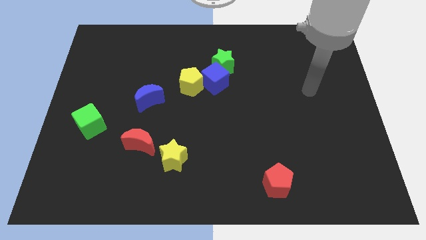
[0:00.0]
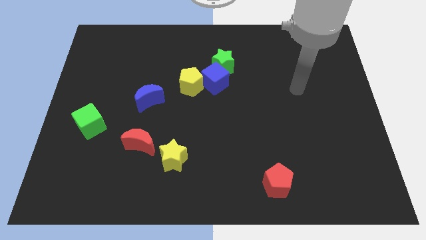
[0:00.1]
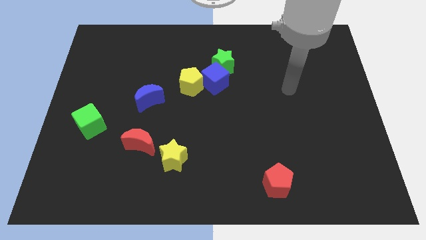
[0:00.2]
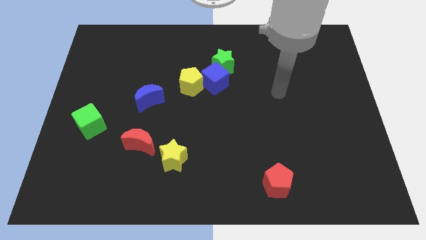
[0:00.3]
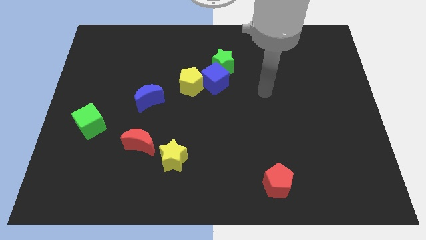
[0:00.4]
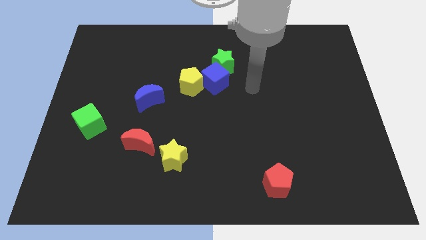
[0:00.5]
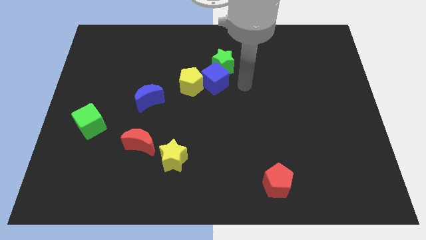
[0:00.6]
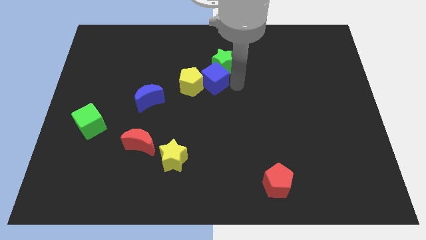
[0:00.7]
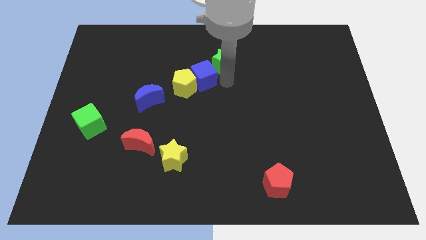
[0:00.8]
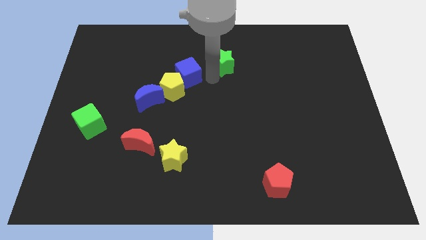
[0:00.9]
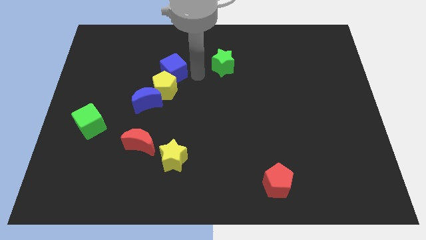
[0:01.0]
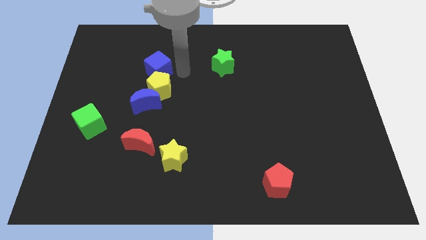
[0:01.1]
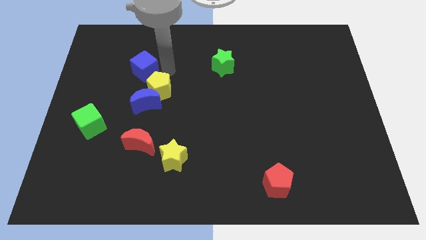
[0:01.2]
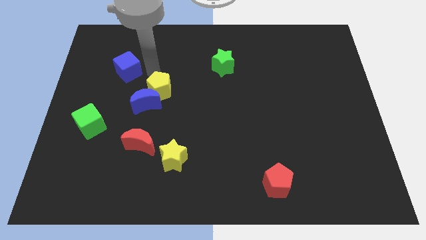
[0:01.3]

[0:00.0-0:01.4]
move the yellow pentagon away from the blue cube

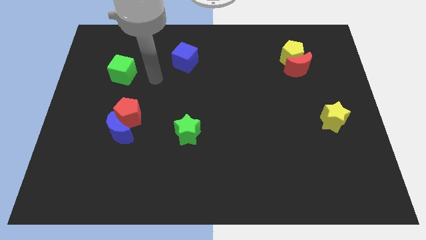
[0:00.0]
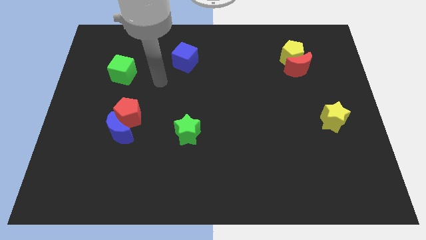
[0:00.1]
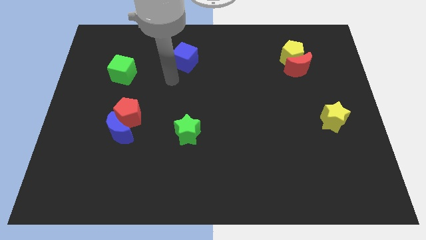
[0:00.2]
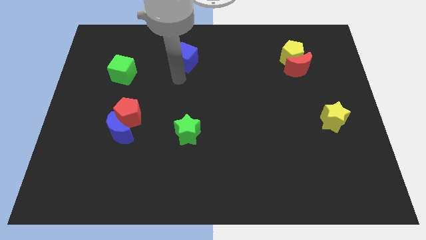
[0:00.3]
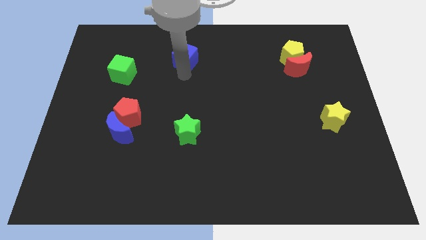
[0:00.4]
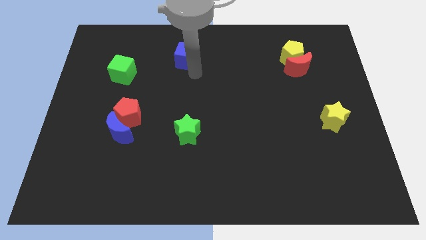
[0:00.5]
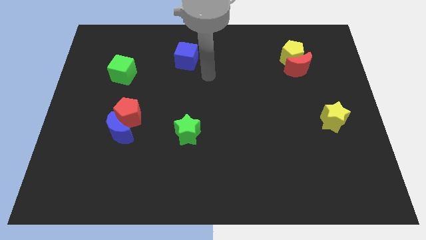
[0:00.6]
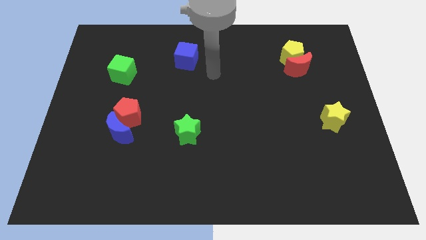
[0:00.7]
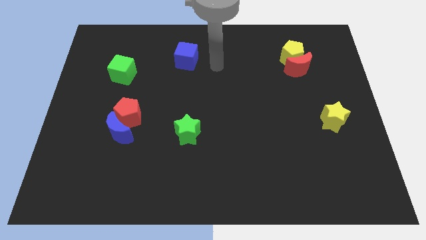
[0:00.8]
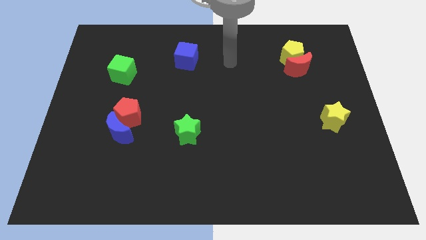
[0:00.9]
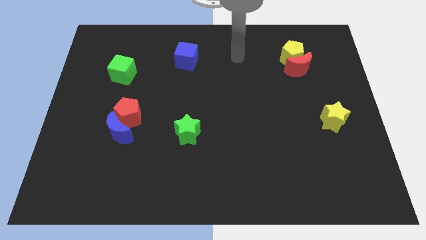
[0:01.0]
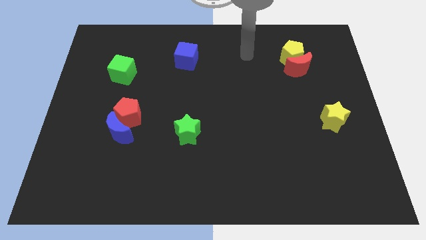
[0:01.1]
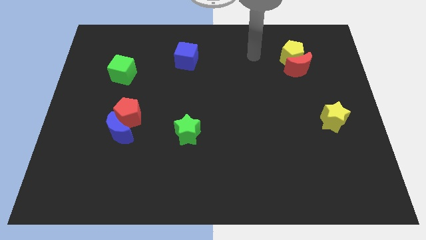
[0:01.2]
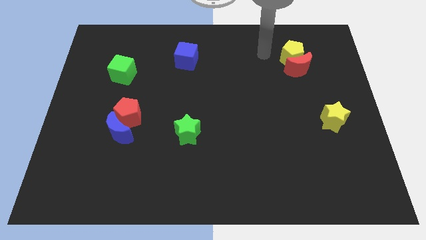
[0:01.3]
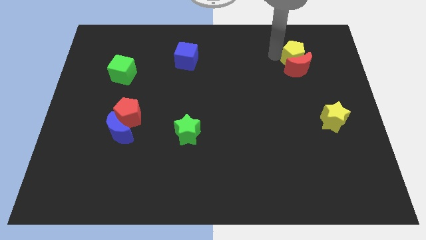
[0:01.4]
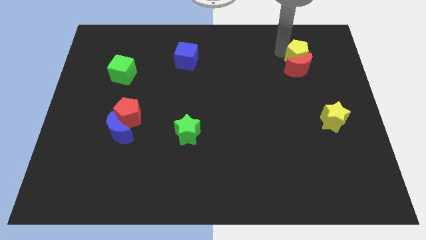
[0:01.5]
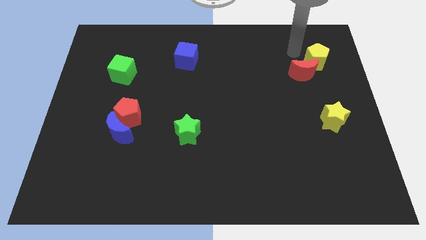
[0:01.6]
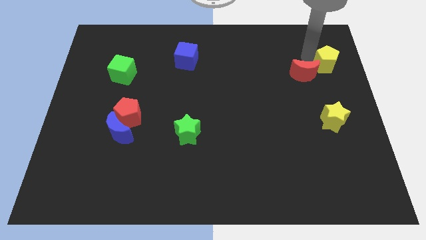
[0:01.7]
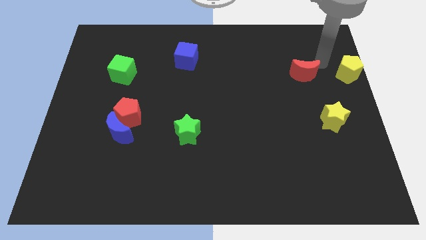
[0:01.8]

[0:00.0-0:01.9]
move the red moon away from the yellow pentagon

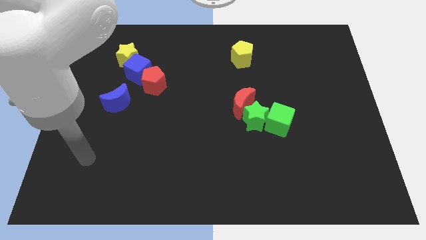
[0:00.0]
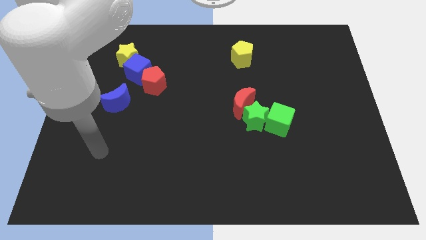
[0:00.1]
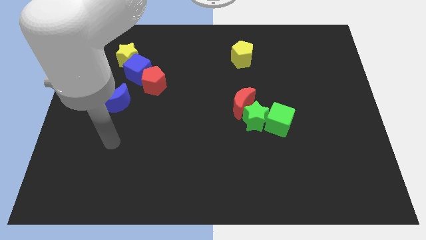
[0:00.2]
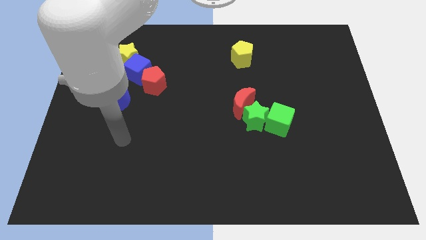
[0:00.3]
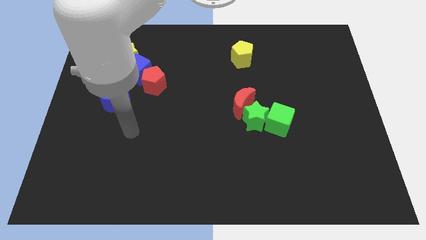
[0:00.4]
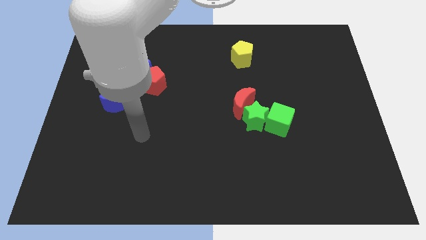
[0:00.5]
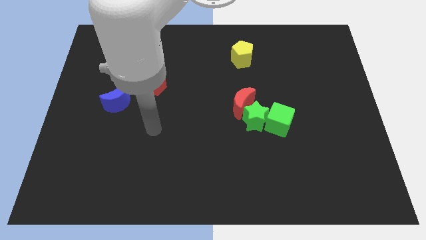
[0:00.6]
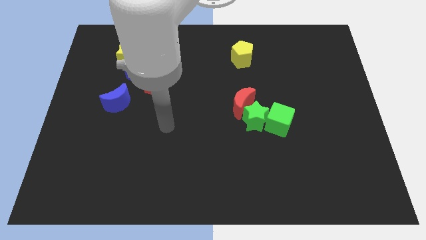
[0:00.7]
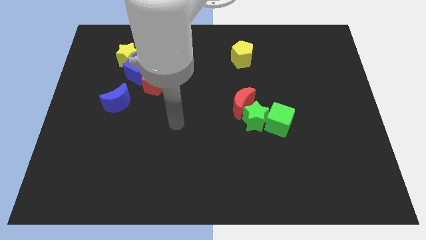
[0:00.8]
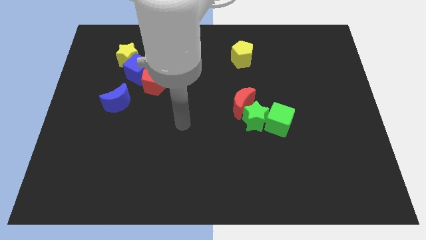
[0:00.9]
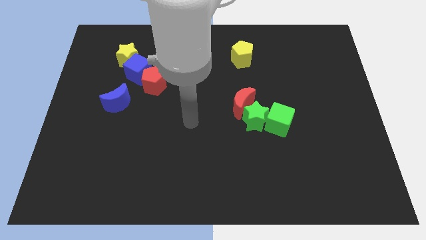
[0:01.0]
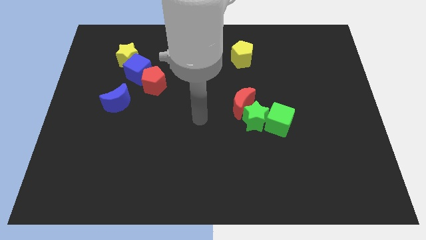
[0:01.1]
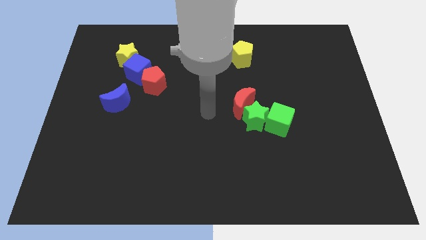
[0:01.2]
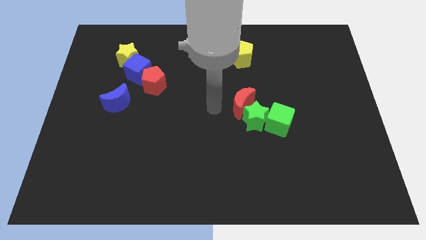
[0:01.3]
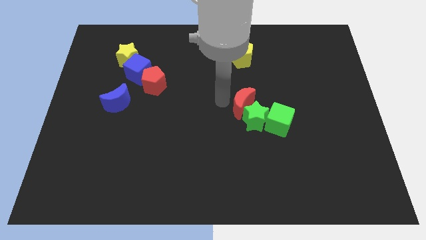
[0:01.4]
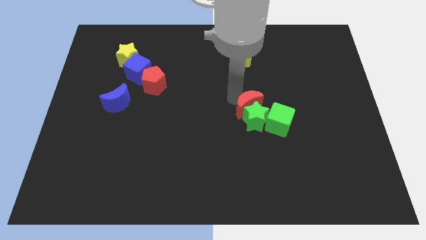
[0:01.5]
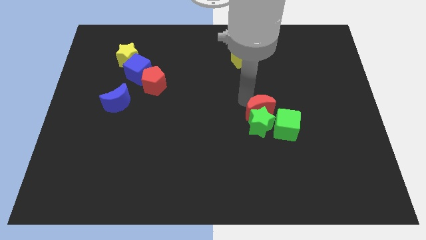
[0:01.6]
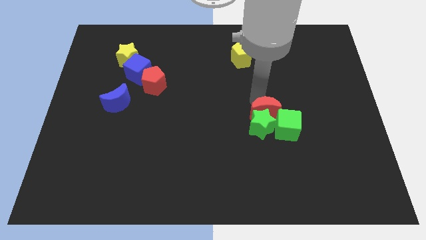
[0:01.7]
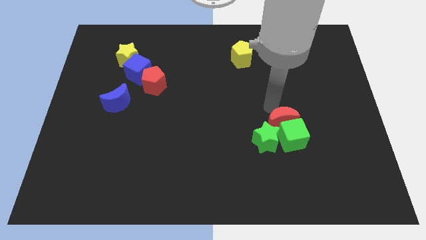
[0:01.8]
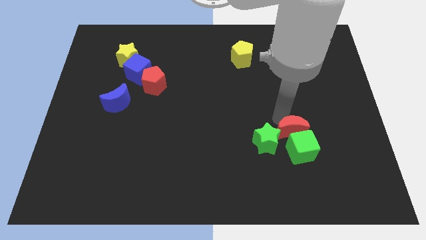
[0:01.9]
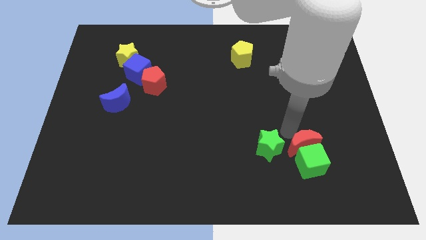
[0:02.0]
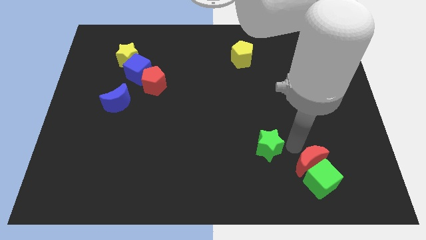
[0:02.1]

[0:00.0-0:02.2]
pull the green star apart from the green cube and red moon

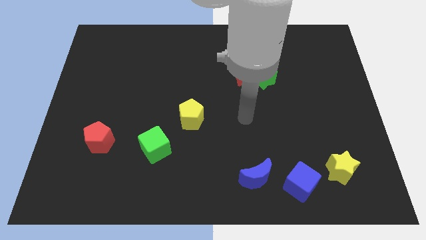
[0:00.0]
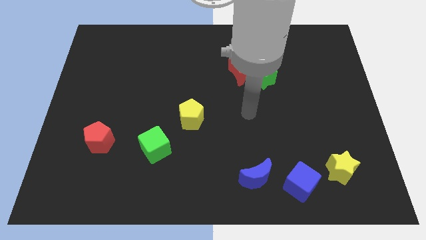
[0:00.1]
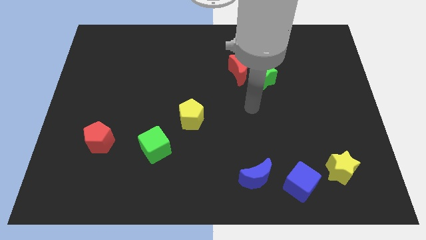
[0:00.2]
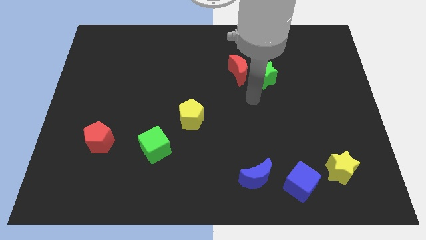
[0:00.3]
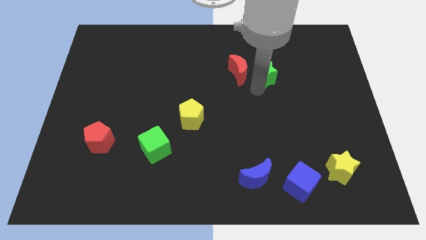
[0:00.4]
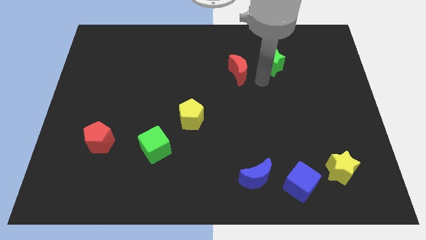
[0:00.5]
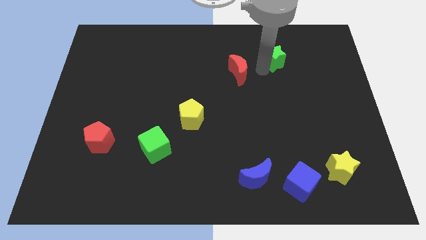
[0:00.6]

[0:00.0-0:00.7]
separate the red moon from the green star

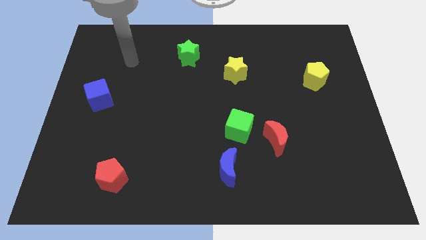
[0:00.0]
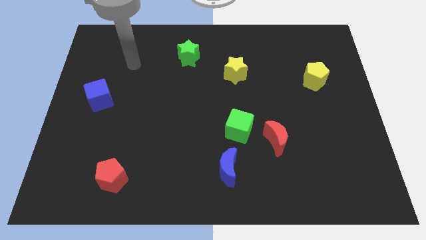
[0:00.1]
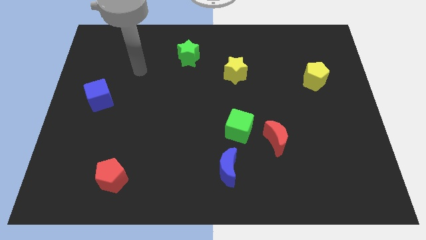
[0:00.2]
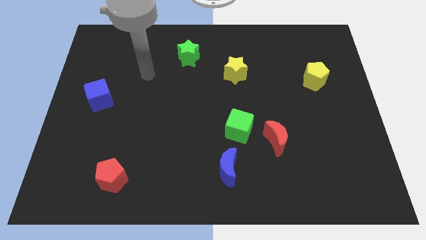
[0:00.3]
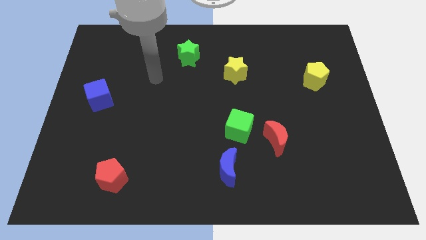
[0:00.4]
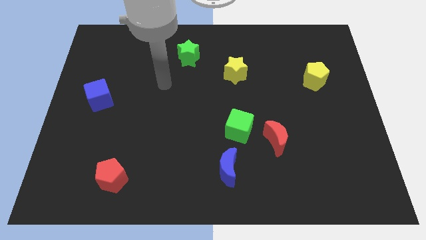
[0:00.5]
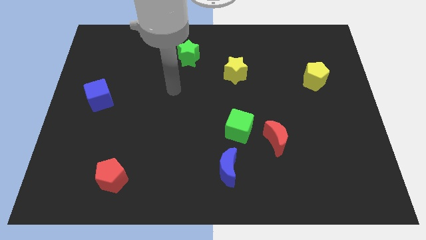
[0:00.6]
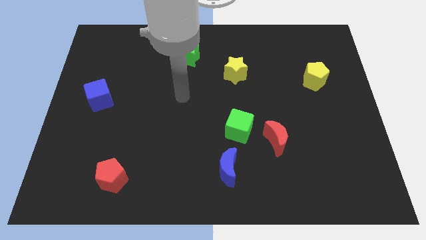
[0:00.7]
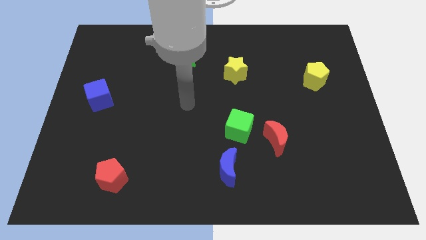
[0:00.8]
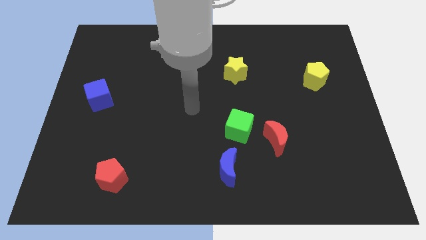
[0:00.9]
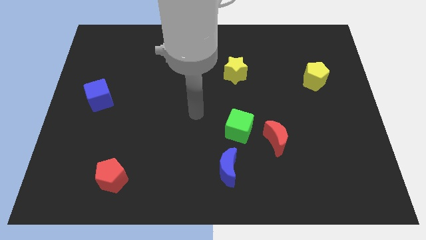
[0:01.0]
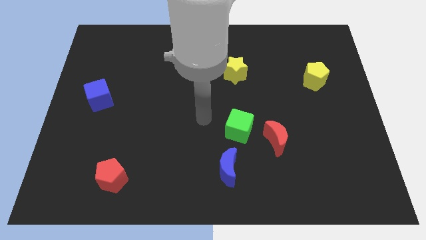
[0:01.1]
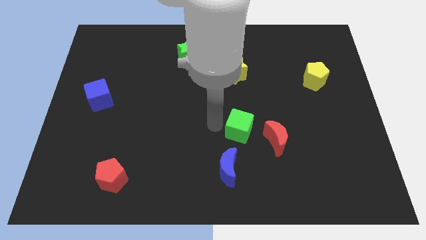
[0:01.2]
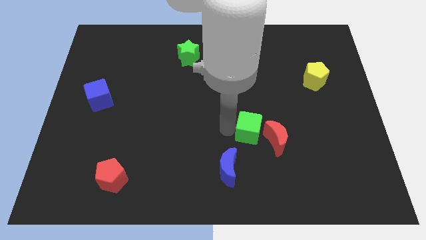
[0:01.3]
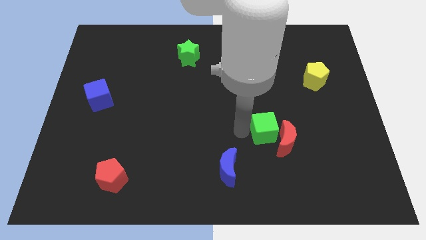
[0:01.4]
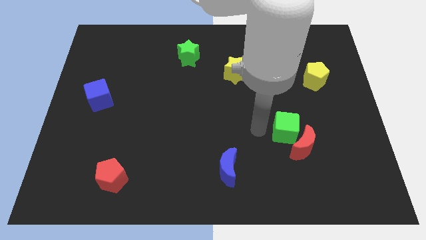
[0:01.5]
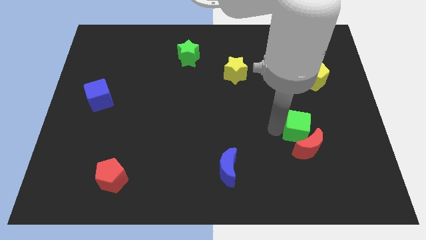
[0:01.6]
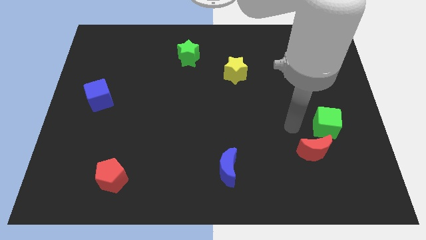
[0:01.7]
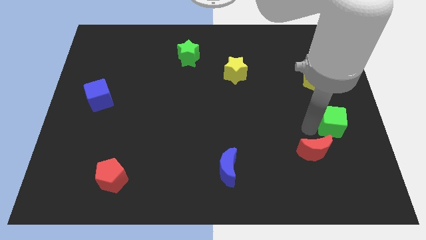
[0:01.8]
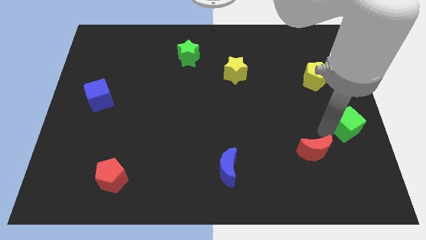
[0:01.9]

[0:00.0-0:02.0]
separate the red moon from the green cube

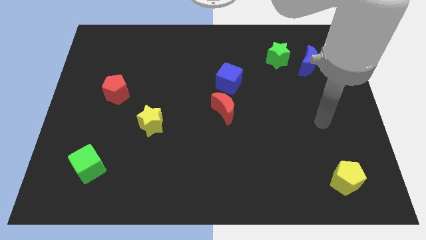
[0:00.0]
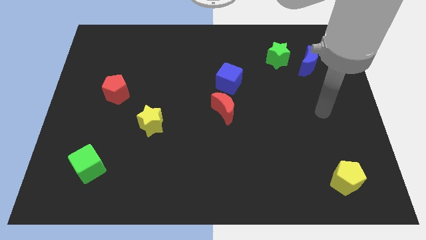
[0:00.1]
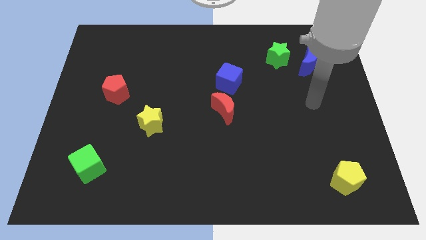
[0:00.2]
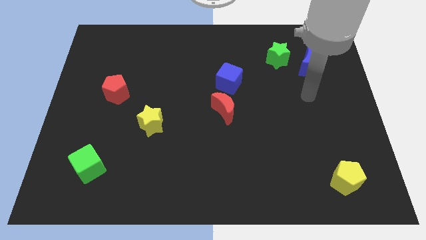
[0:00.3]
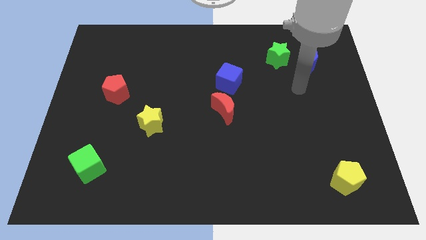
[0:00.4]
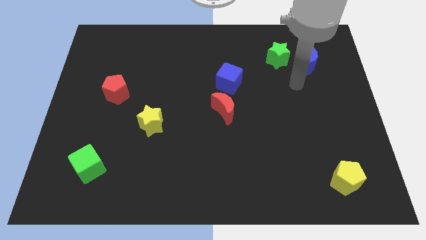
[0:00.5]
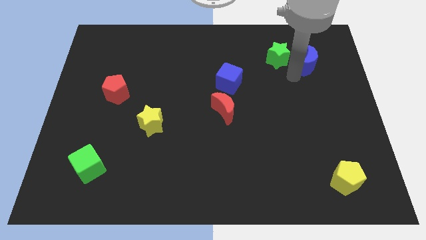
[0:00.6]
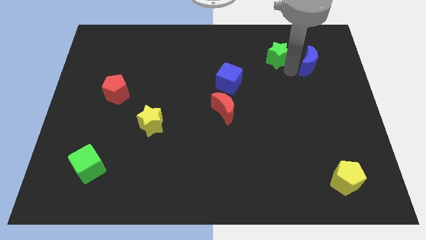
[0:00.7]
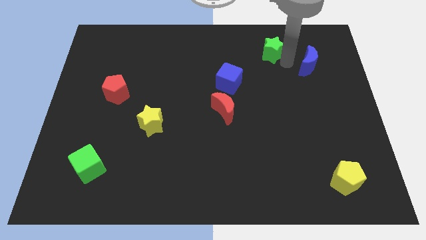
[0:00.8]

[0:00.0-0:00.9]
separate the blue moon from the green star

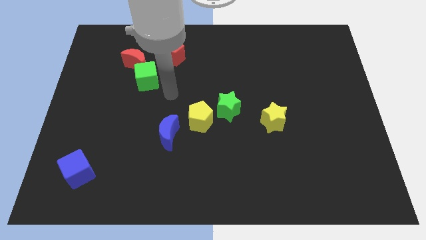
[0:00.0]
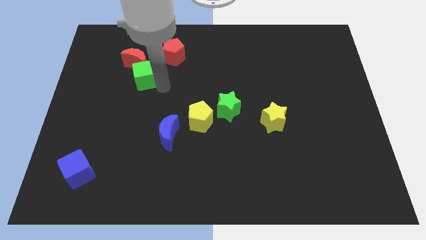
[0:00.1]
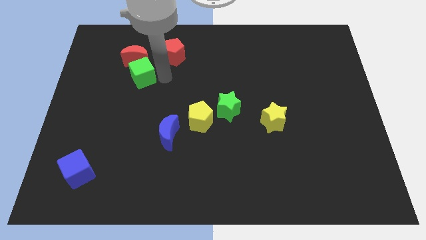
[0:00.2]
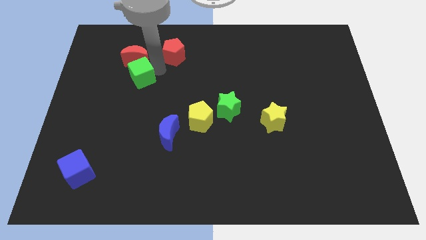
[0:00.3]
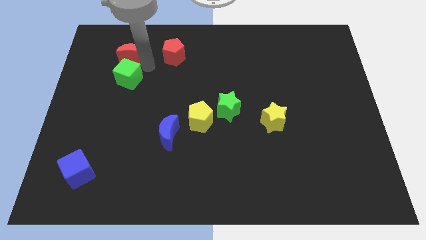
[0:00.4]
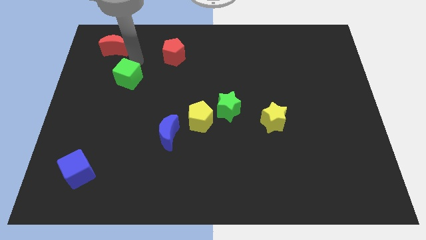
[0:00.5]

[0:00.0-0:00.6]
move the green cube away from the red moon
